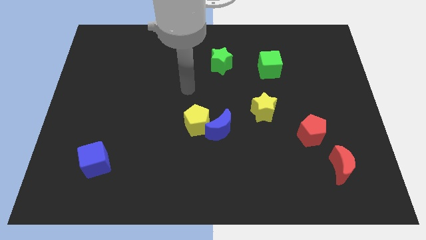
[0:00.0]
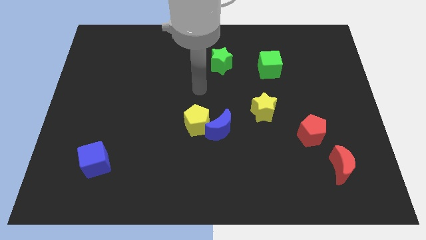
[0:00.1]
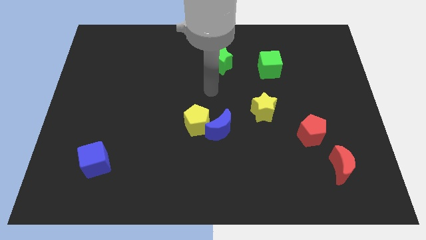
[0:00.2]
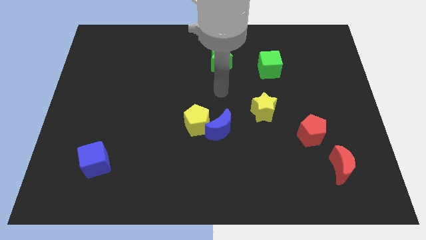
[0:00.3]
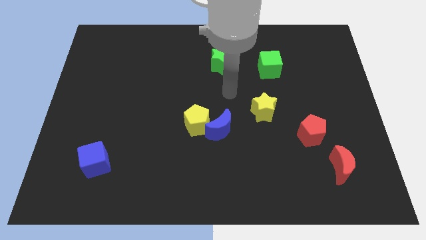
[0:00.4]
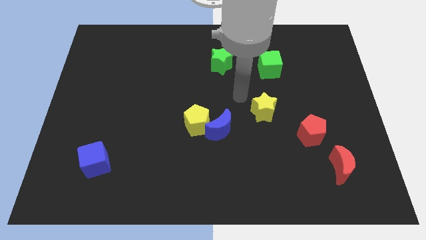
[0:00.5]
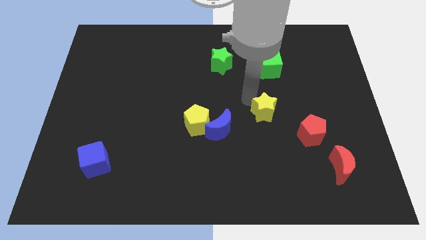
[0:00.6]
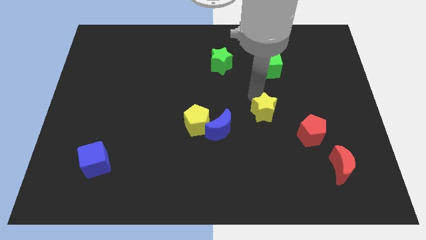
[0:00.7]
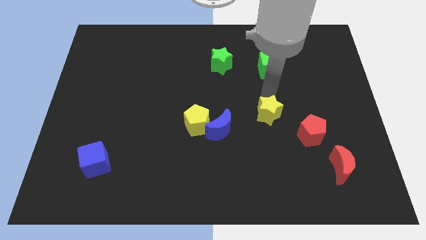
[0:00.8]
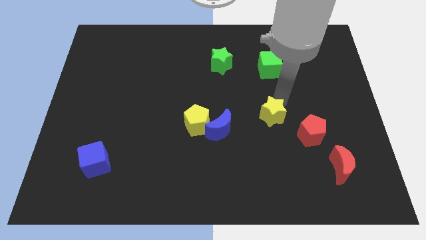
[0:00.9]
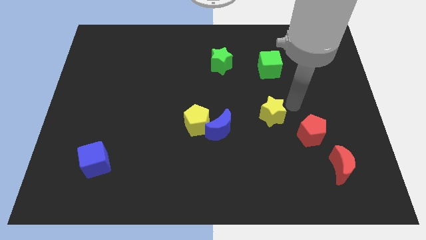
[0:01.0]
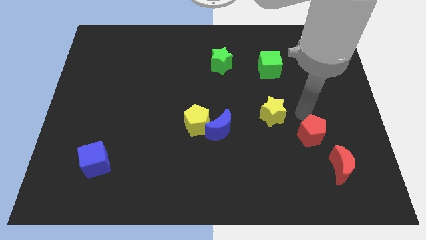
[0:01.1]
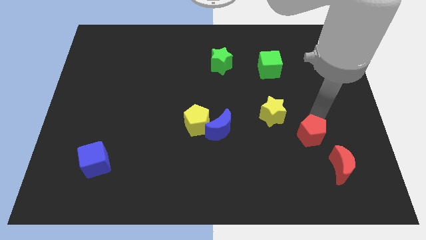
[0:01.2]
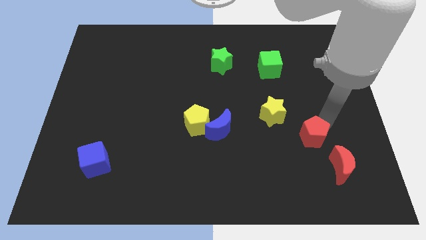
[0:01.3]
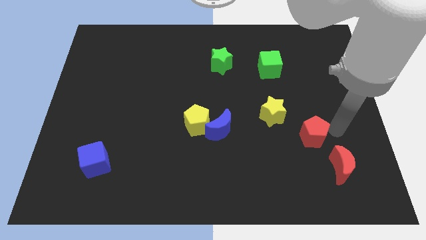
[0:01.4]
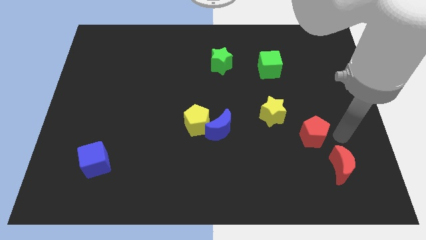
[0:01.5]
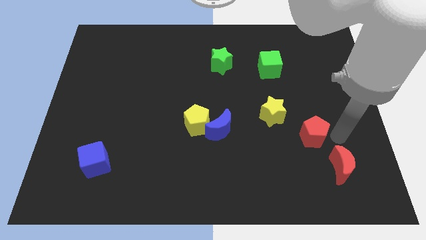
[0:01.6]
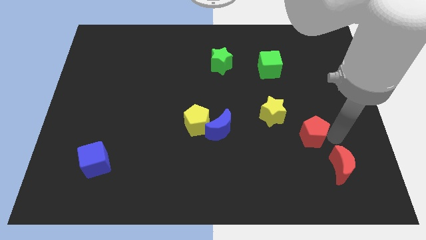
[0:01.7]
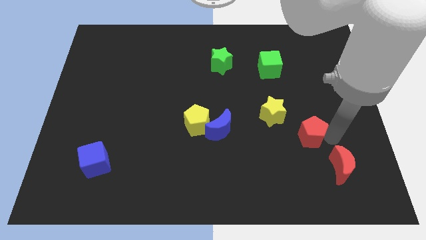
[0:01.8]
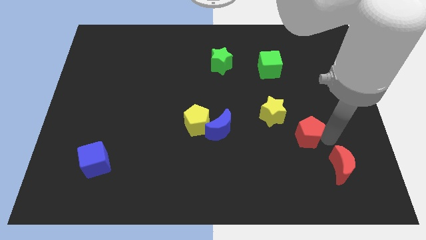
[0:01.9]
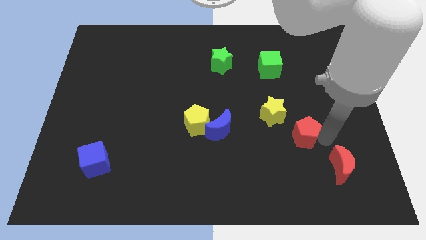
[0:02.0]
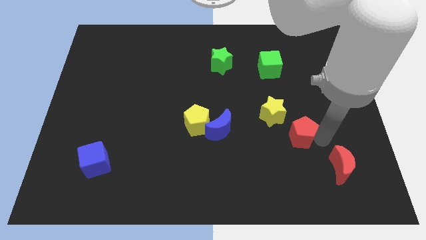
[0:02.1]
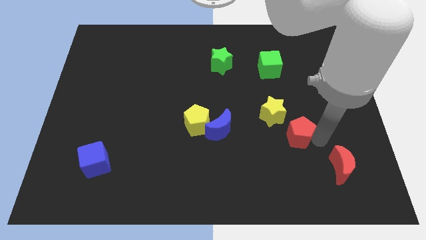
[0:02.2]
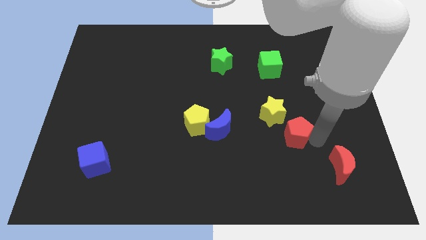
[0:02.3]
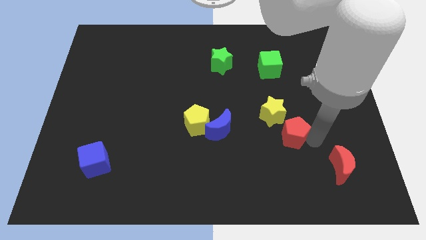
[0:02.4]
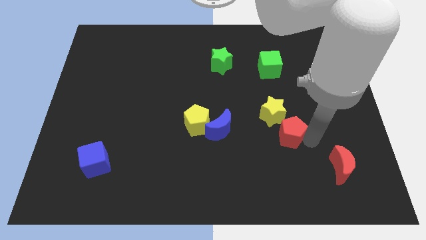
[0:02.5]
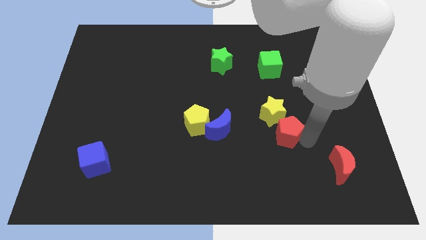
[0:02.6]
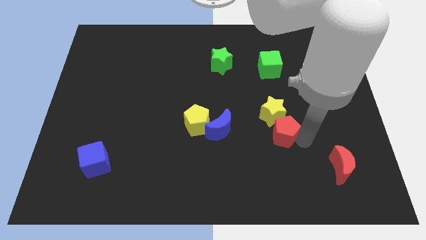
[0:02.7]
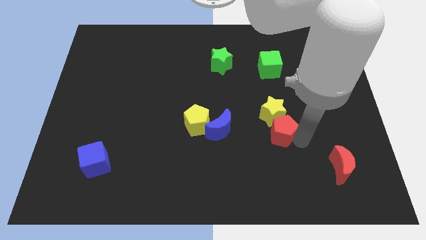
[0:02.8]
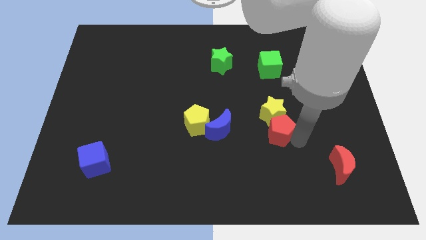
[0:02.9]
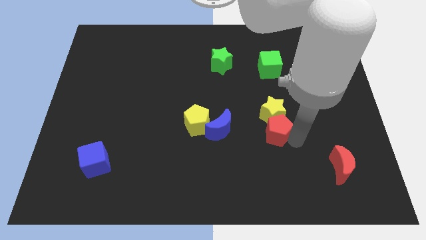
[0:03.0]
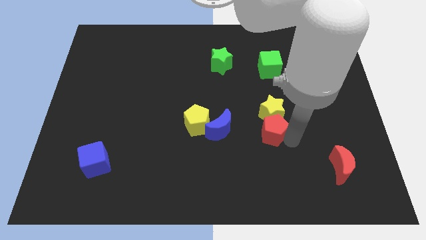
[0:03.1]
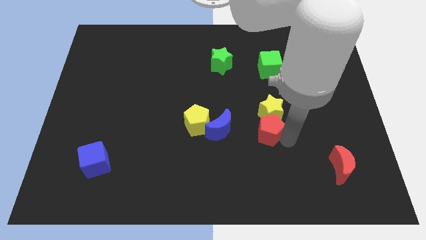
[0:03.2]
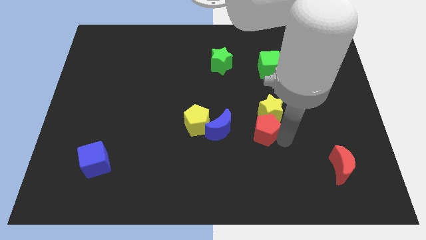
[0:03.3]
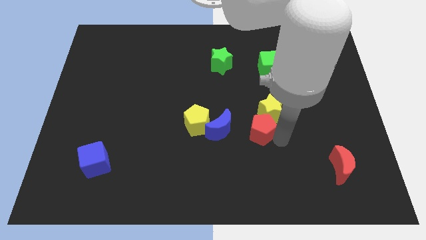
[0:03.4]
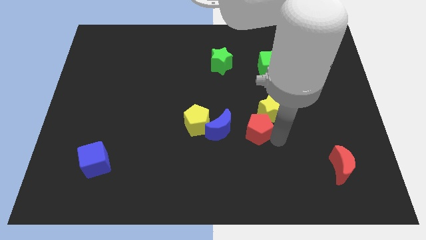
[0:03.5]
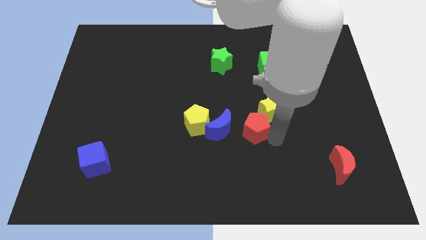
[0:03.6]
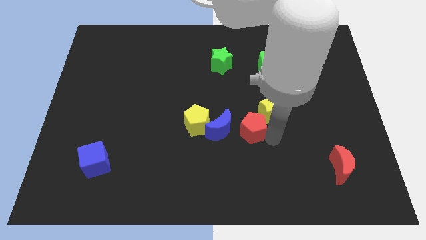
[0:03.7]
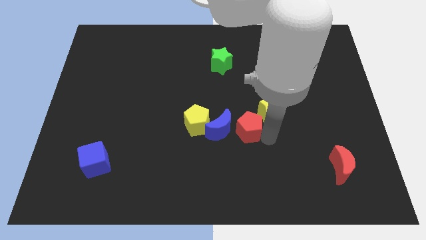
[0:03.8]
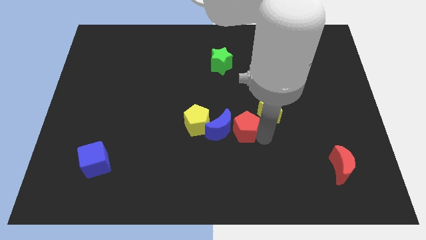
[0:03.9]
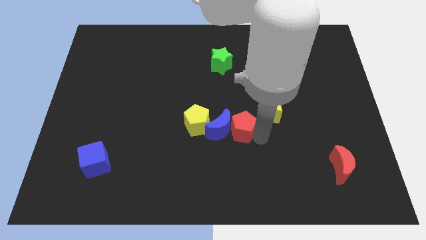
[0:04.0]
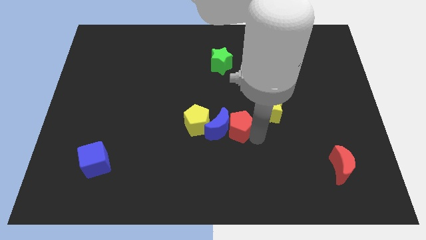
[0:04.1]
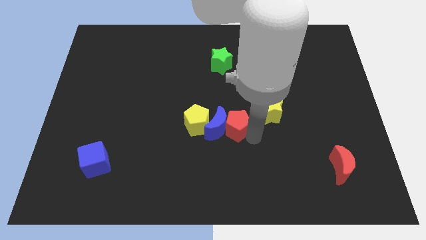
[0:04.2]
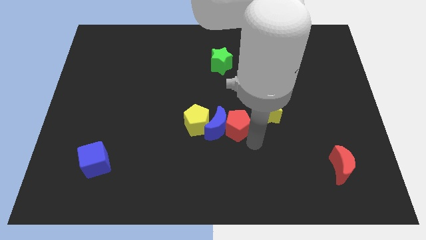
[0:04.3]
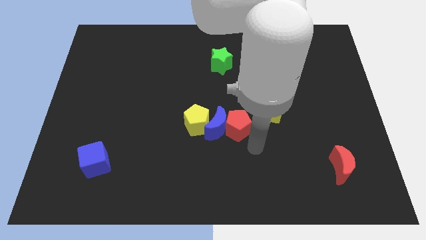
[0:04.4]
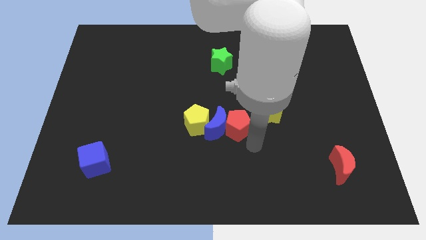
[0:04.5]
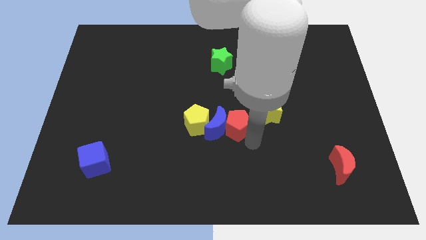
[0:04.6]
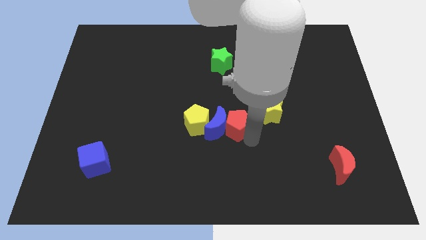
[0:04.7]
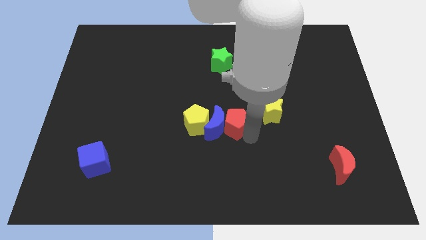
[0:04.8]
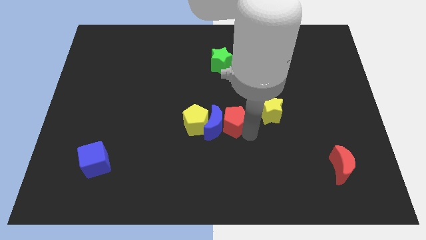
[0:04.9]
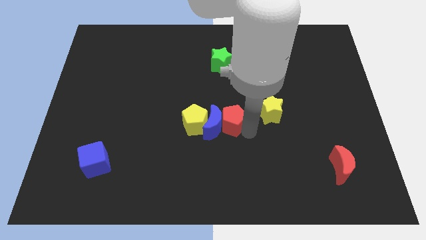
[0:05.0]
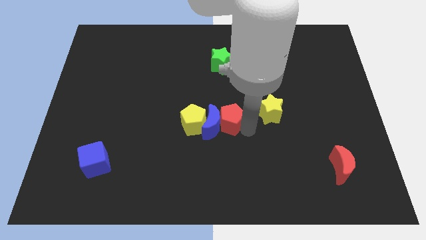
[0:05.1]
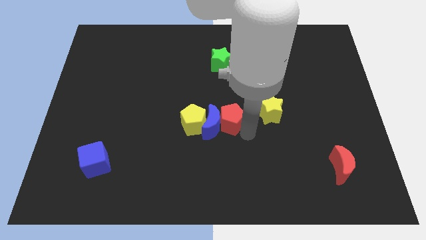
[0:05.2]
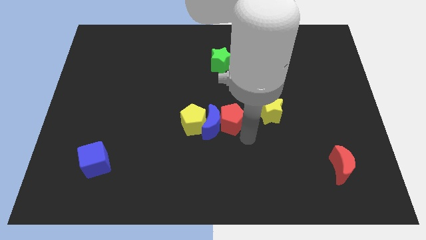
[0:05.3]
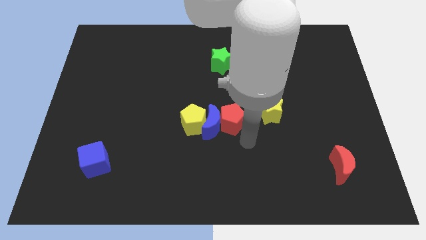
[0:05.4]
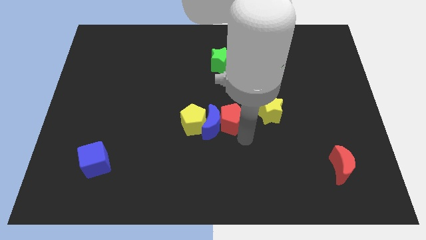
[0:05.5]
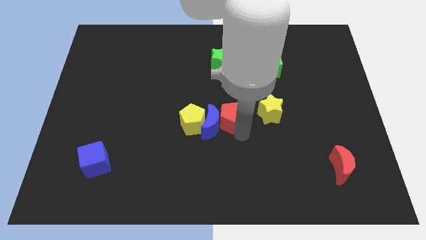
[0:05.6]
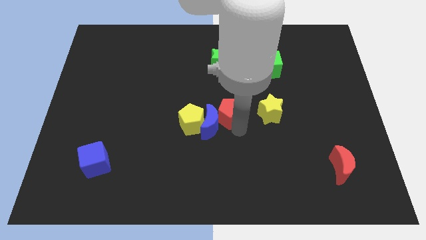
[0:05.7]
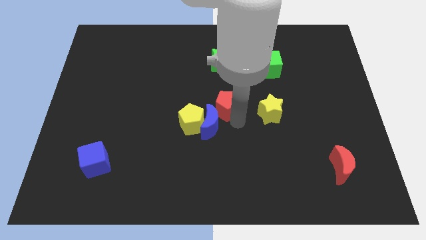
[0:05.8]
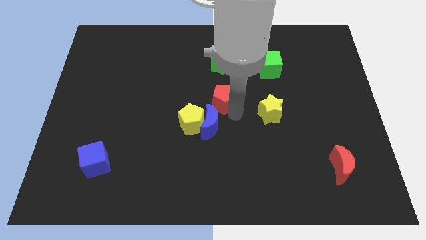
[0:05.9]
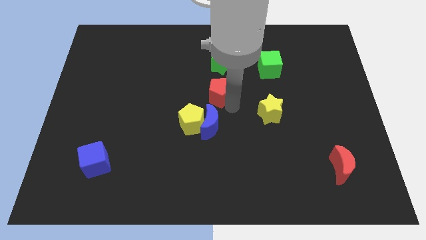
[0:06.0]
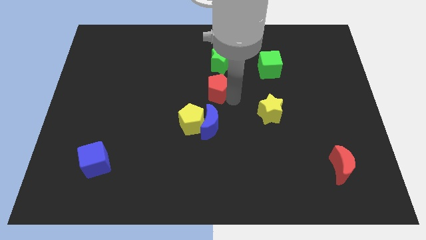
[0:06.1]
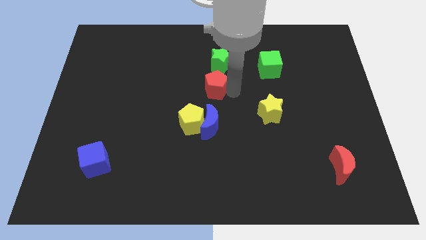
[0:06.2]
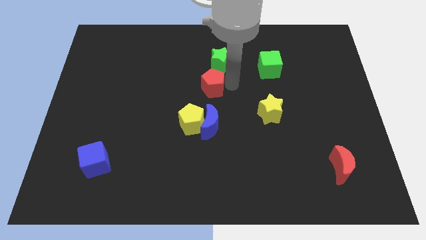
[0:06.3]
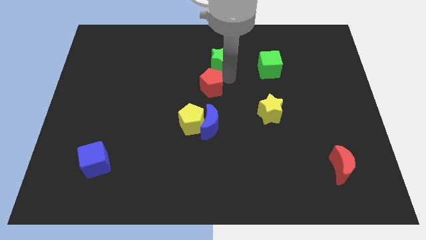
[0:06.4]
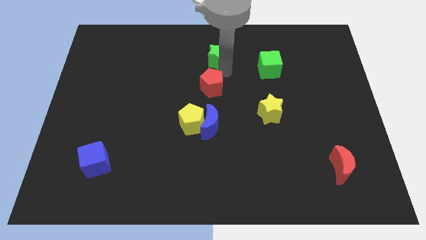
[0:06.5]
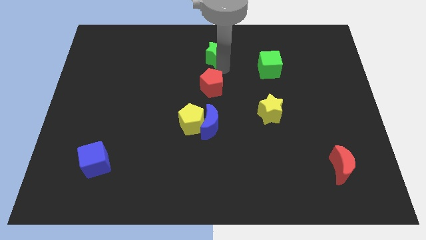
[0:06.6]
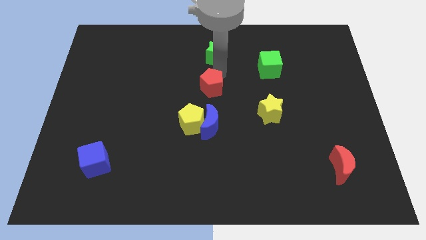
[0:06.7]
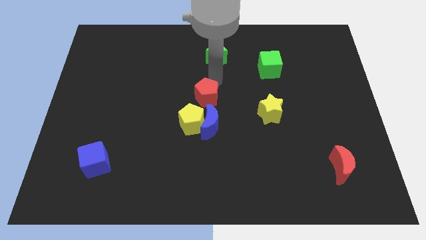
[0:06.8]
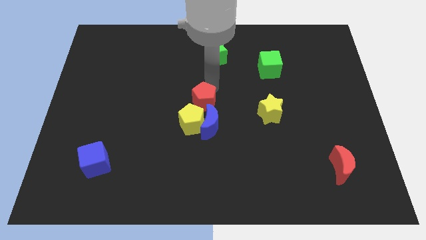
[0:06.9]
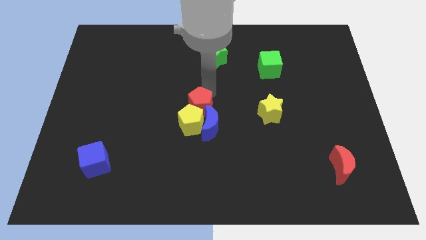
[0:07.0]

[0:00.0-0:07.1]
slide the red pentagon close to the yellow pentagon
